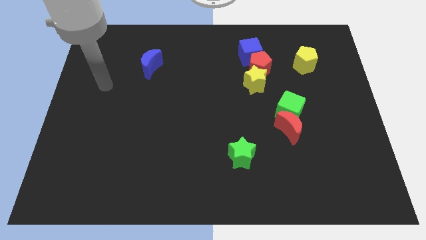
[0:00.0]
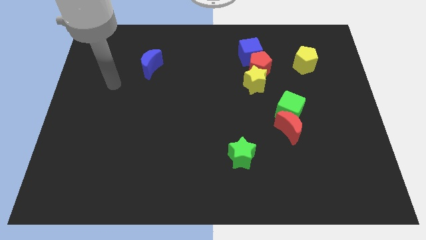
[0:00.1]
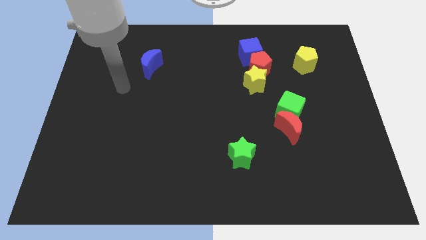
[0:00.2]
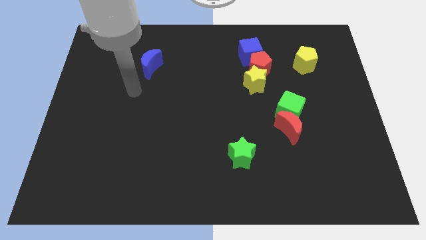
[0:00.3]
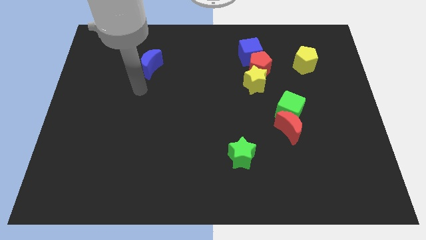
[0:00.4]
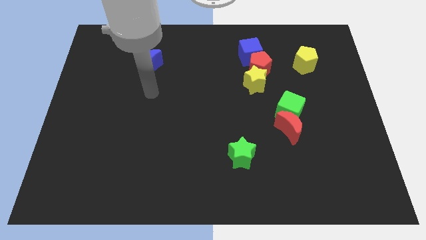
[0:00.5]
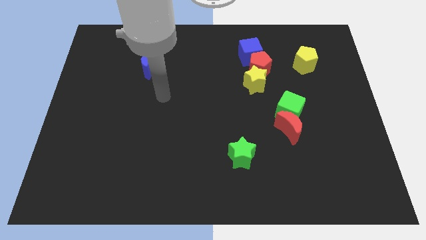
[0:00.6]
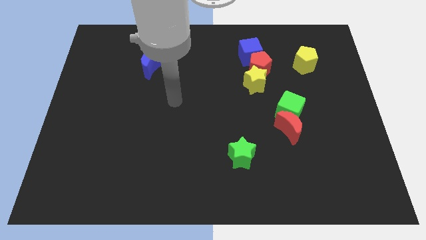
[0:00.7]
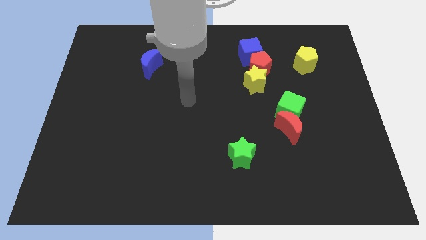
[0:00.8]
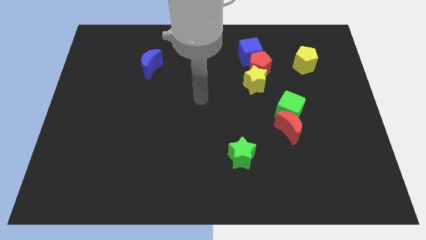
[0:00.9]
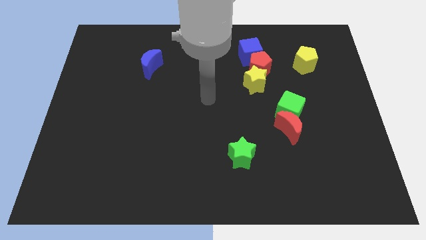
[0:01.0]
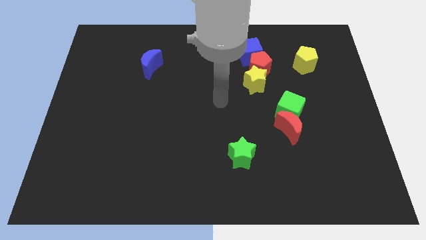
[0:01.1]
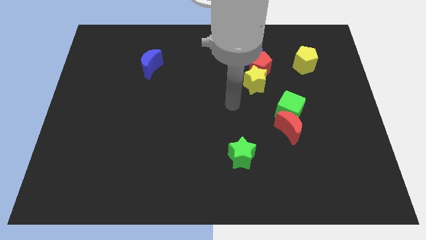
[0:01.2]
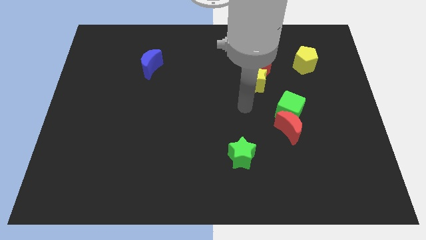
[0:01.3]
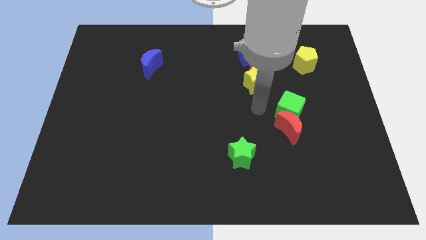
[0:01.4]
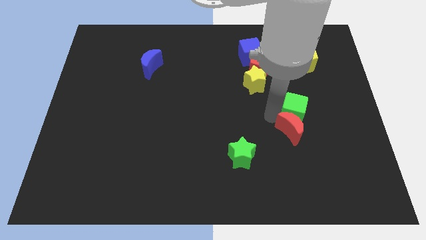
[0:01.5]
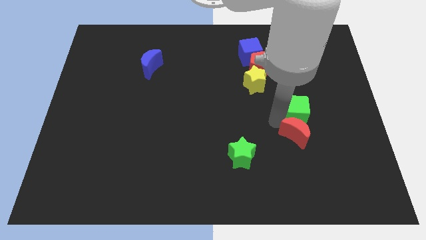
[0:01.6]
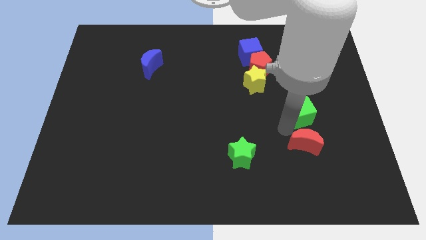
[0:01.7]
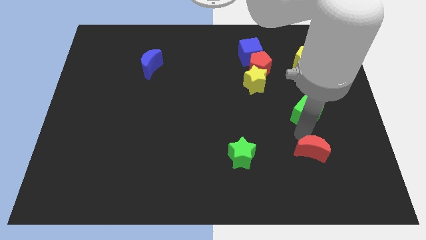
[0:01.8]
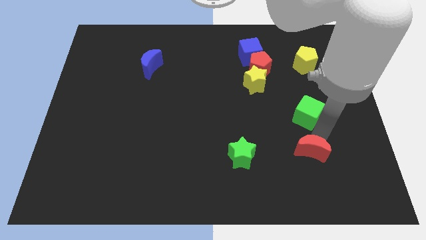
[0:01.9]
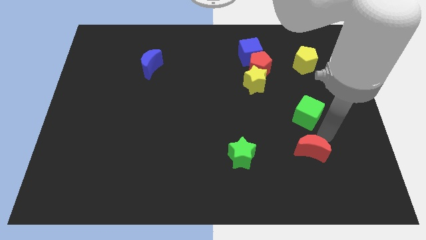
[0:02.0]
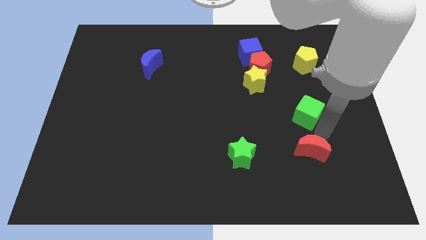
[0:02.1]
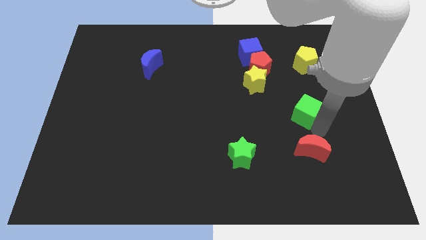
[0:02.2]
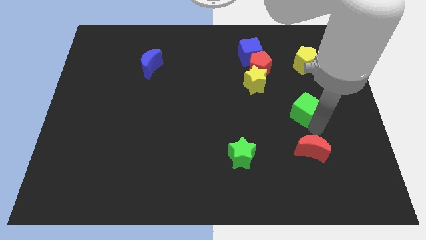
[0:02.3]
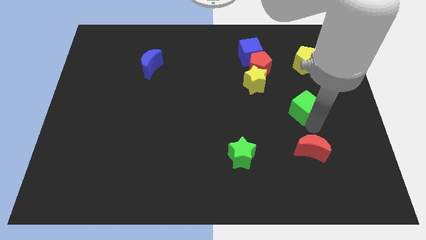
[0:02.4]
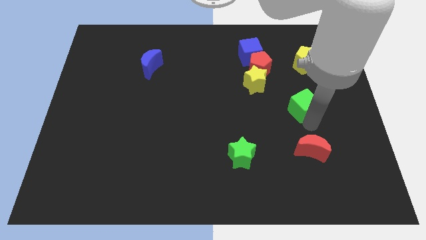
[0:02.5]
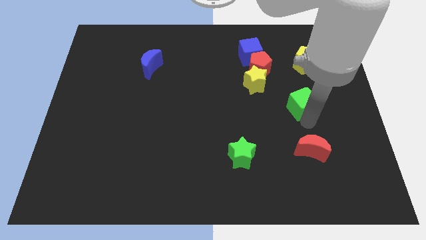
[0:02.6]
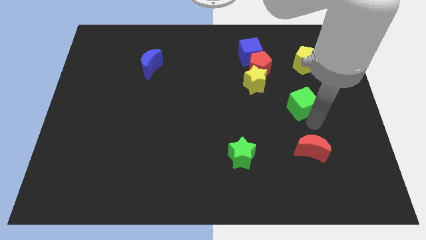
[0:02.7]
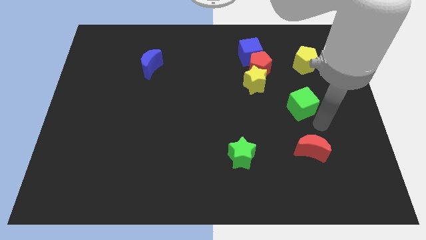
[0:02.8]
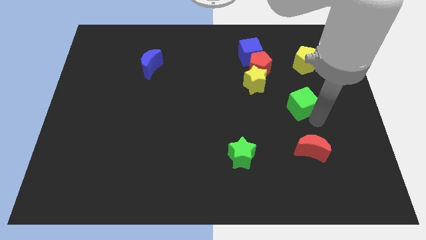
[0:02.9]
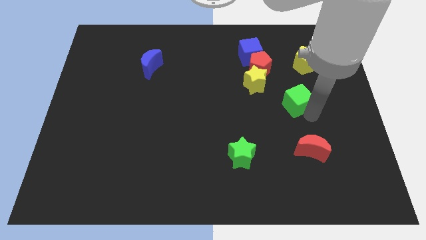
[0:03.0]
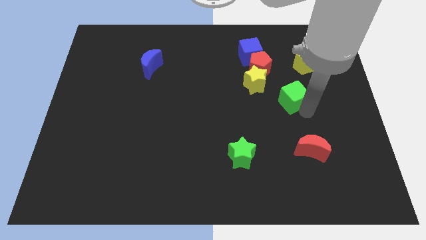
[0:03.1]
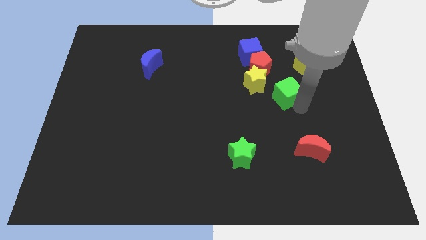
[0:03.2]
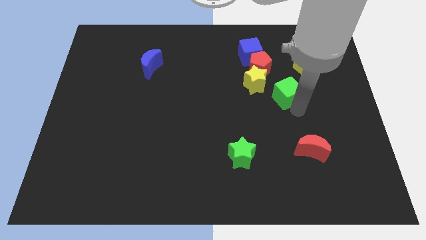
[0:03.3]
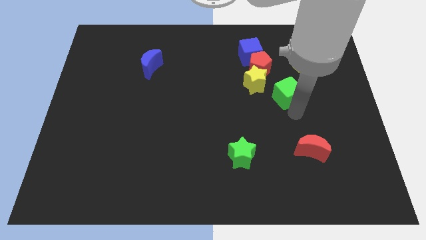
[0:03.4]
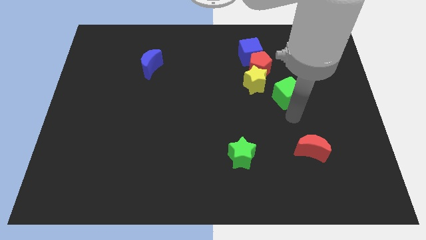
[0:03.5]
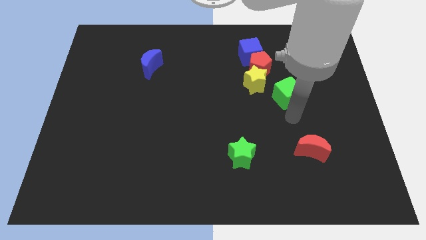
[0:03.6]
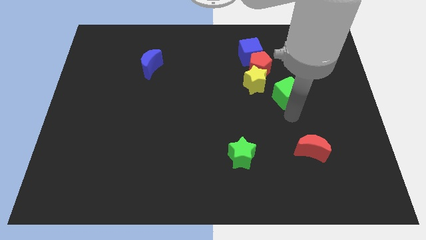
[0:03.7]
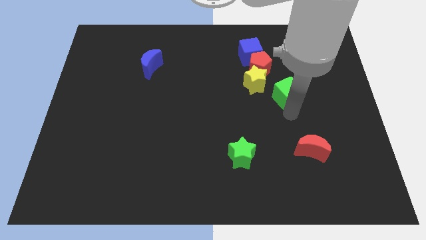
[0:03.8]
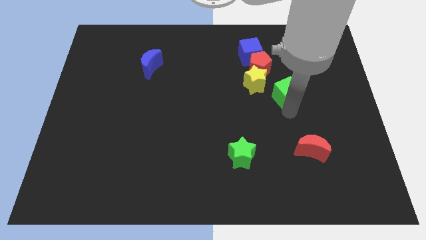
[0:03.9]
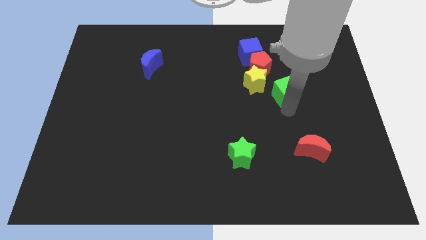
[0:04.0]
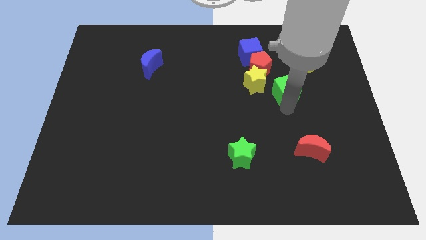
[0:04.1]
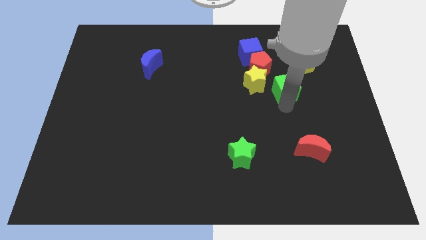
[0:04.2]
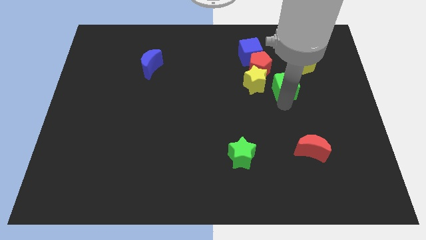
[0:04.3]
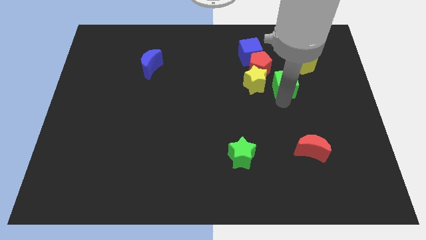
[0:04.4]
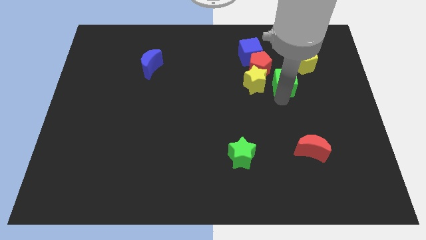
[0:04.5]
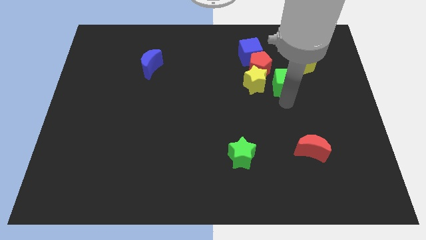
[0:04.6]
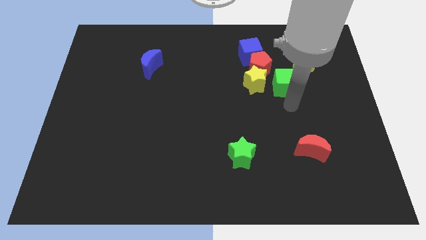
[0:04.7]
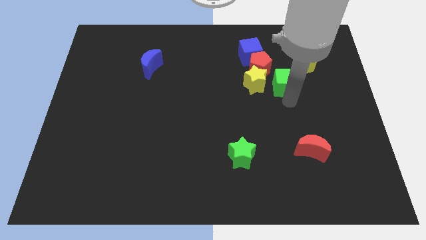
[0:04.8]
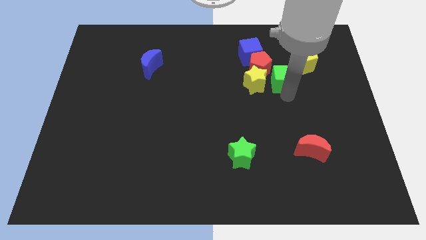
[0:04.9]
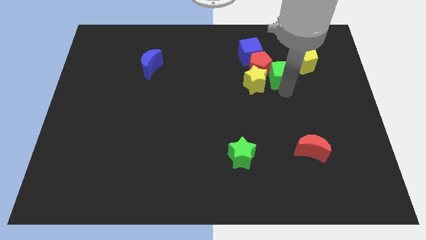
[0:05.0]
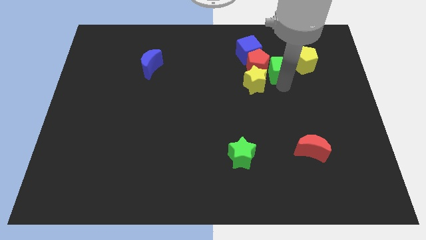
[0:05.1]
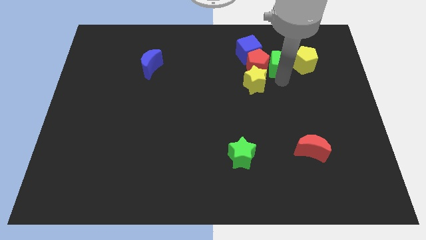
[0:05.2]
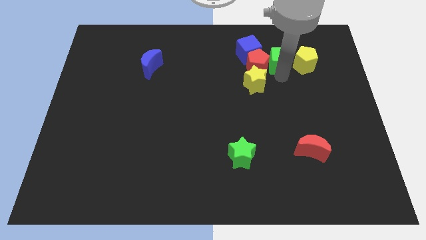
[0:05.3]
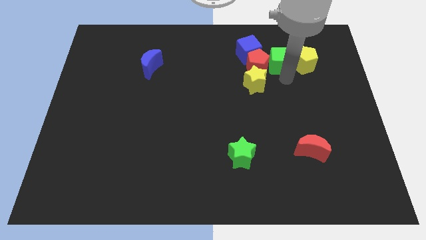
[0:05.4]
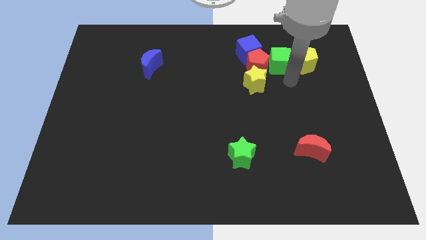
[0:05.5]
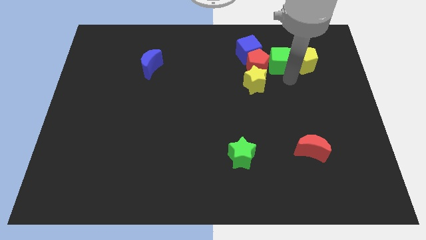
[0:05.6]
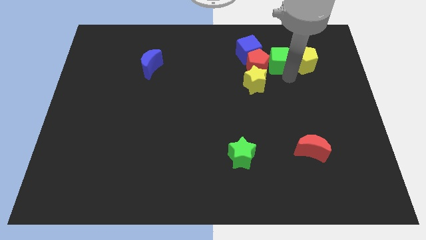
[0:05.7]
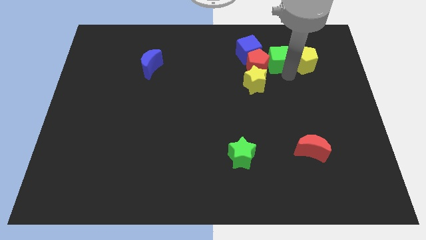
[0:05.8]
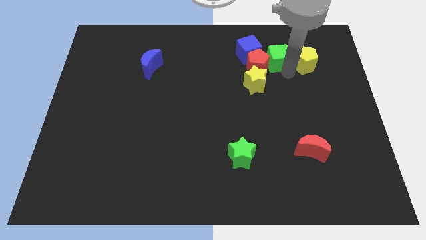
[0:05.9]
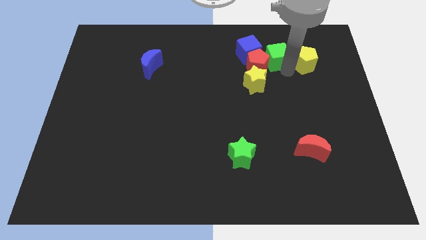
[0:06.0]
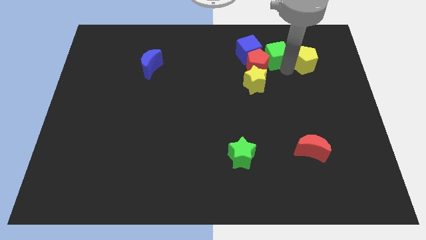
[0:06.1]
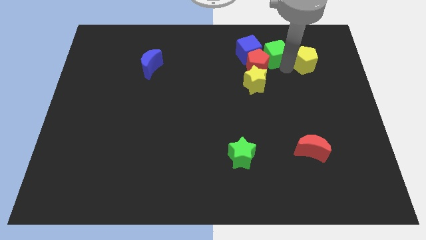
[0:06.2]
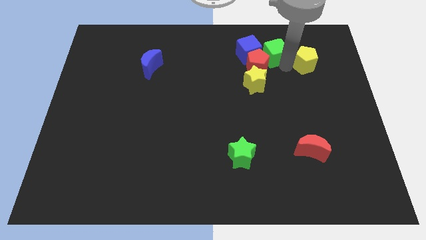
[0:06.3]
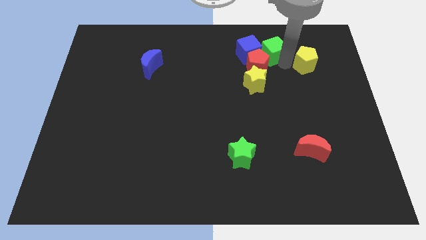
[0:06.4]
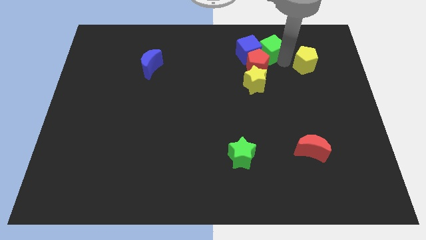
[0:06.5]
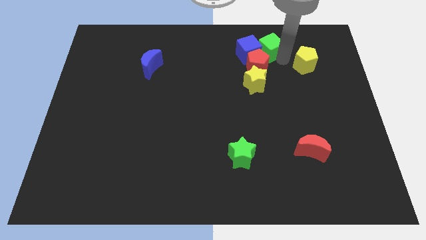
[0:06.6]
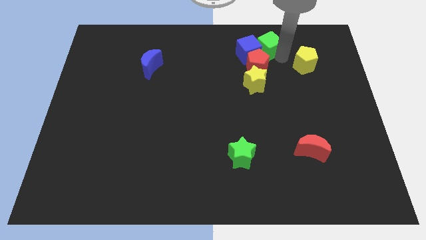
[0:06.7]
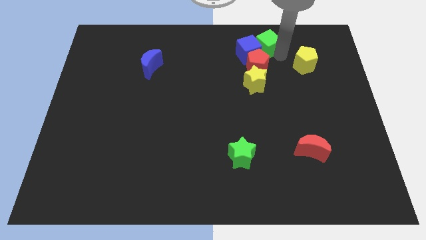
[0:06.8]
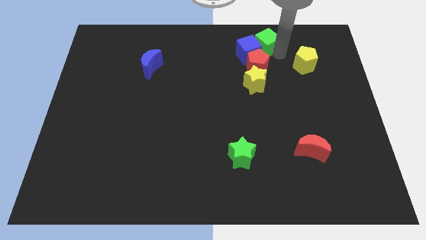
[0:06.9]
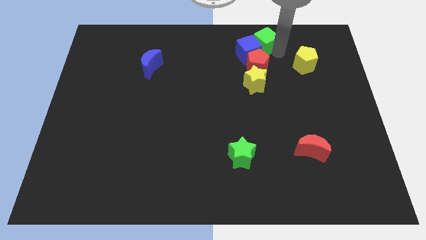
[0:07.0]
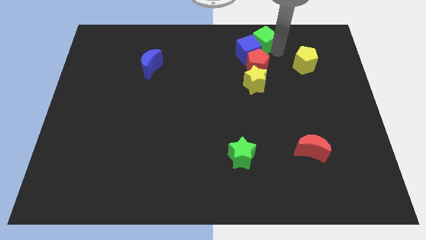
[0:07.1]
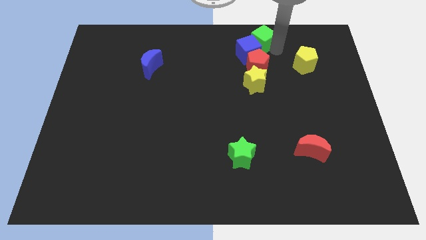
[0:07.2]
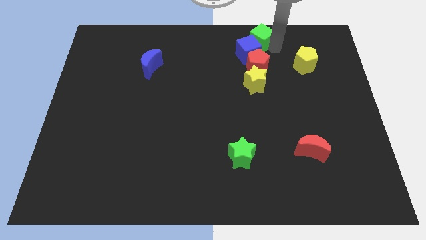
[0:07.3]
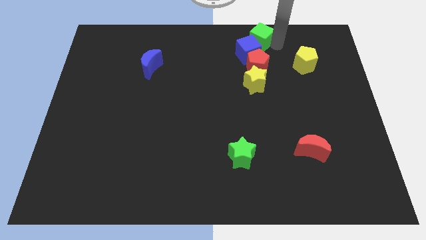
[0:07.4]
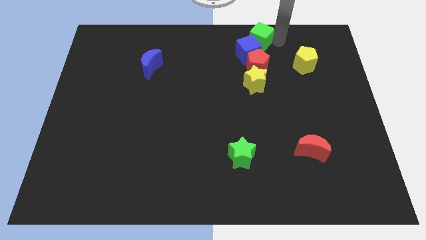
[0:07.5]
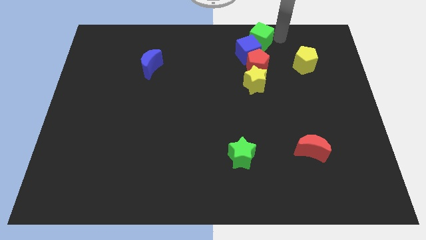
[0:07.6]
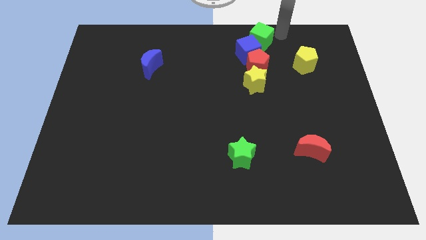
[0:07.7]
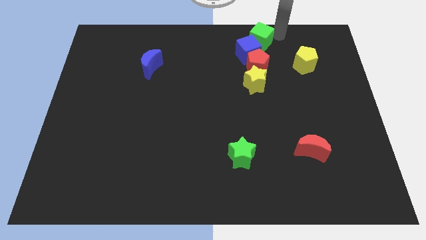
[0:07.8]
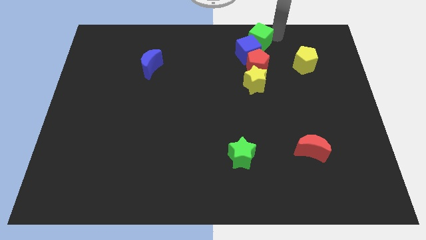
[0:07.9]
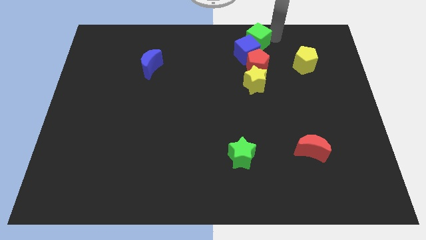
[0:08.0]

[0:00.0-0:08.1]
slide the green cube to the top
